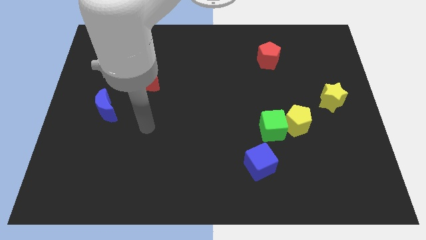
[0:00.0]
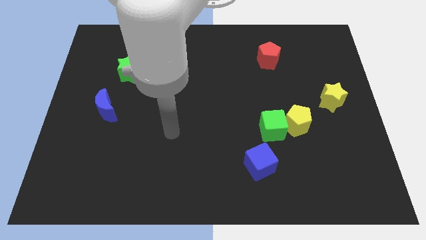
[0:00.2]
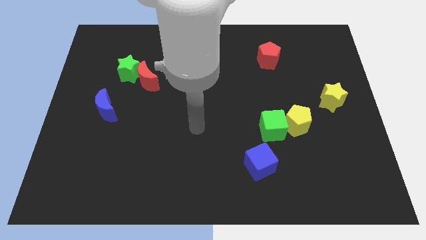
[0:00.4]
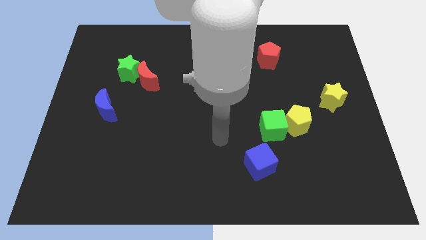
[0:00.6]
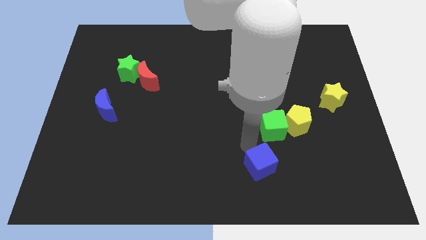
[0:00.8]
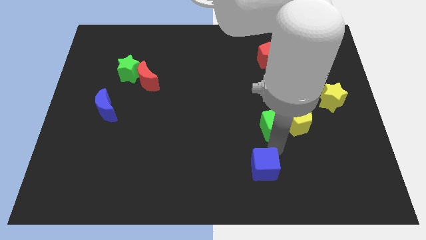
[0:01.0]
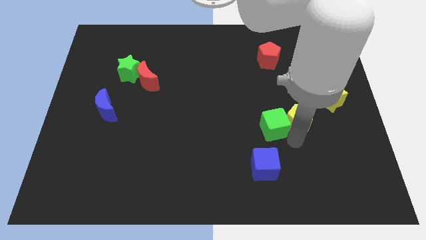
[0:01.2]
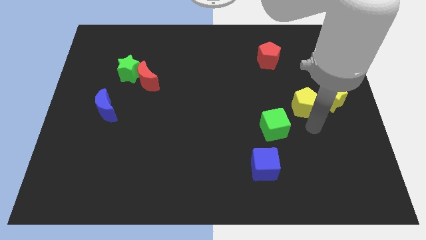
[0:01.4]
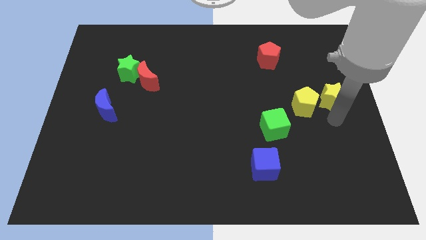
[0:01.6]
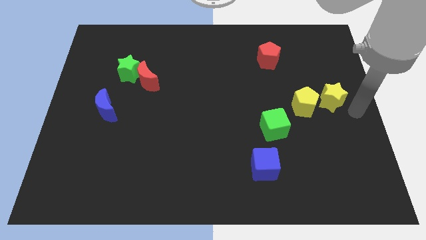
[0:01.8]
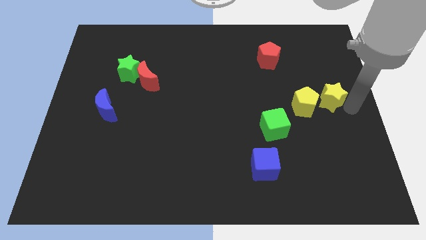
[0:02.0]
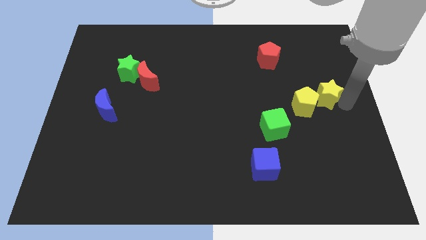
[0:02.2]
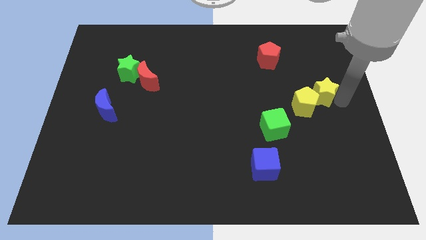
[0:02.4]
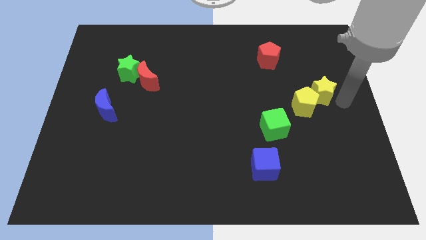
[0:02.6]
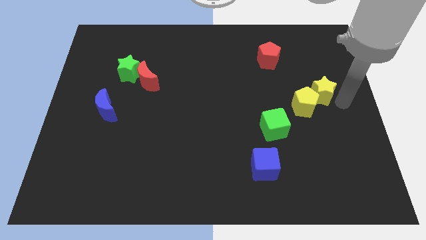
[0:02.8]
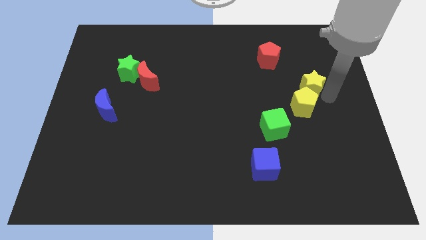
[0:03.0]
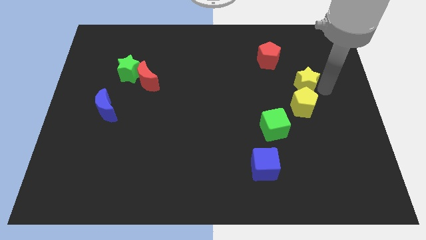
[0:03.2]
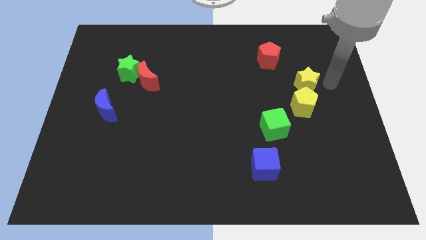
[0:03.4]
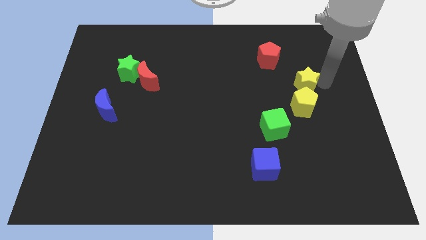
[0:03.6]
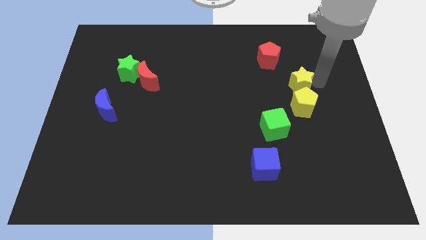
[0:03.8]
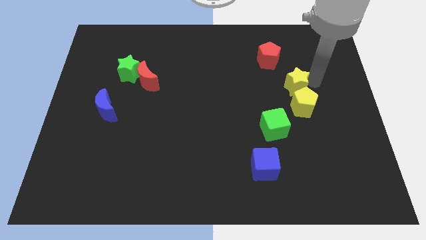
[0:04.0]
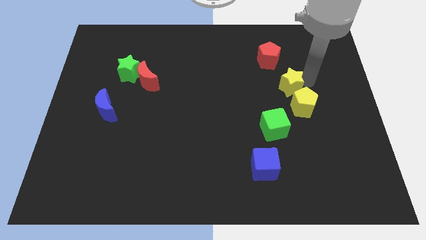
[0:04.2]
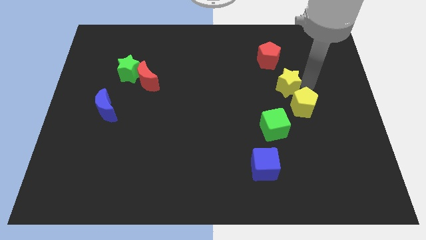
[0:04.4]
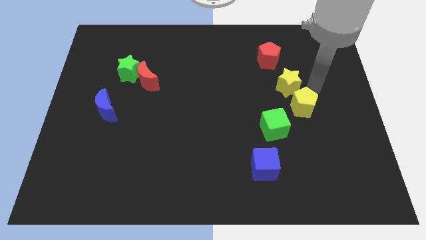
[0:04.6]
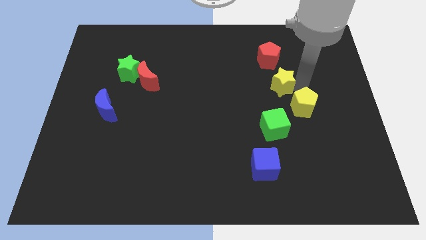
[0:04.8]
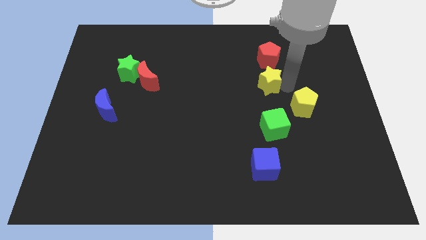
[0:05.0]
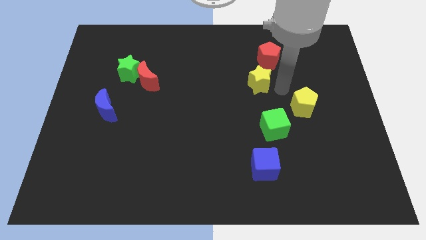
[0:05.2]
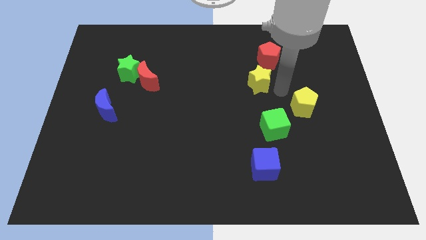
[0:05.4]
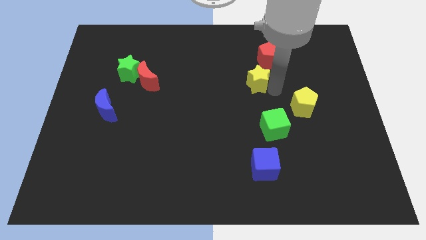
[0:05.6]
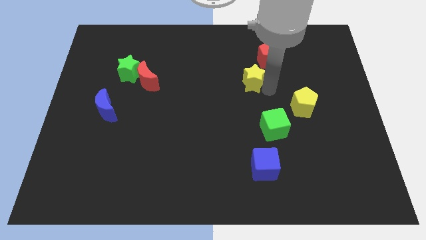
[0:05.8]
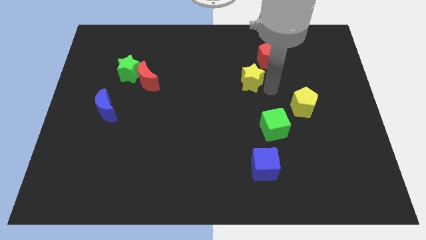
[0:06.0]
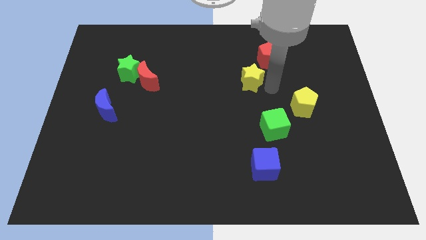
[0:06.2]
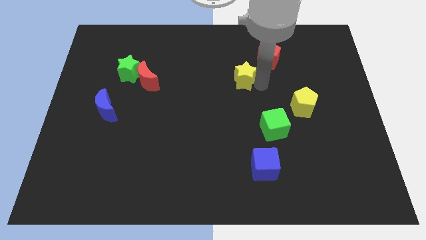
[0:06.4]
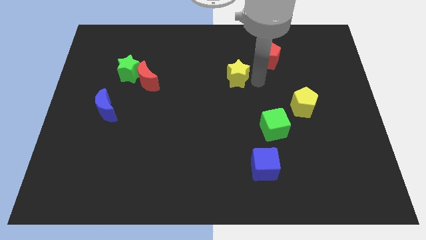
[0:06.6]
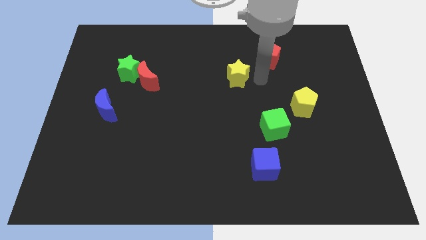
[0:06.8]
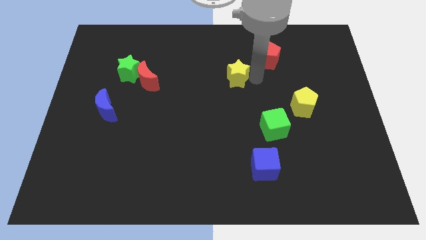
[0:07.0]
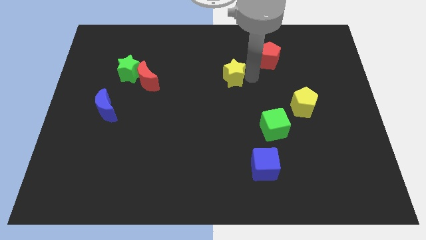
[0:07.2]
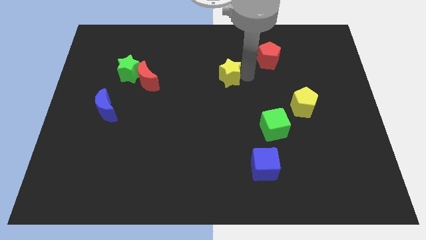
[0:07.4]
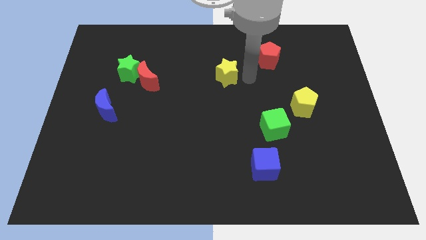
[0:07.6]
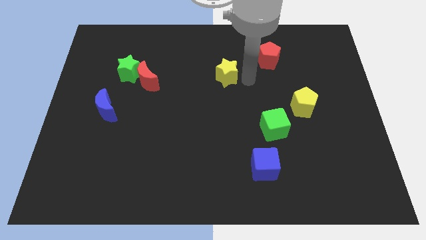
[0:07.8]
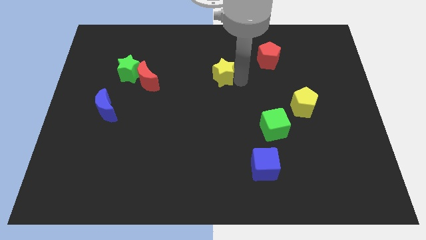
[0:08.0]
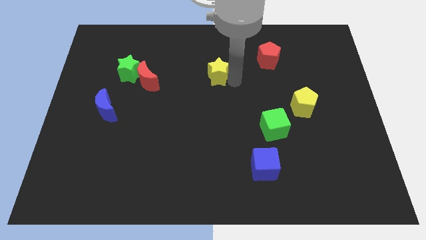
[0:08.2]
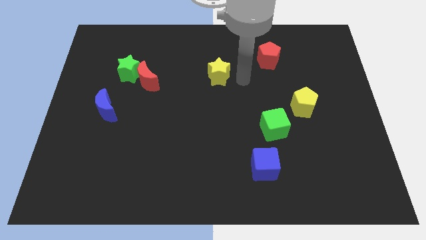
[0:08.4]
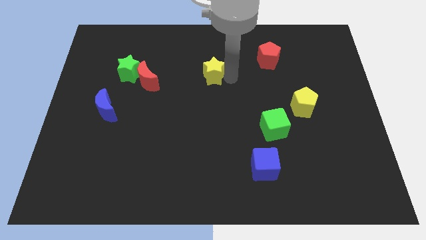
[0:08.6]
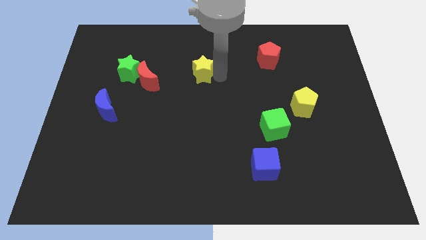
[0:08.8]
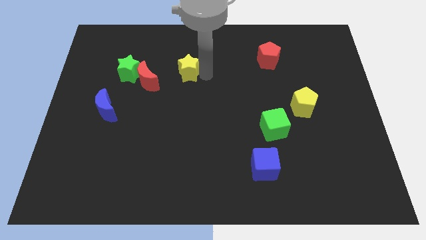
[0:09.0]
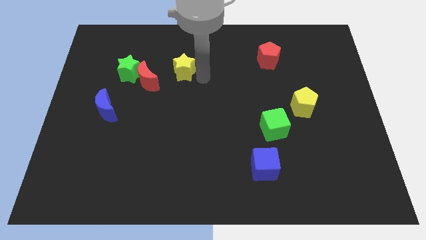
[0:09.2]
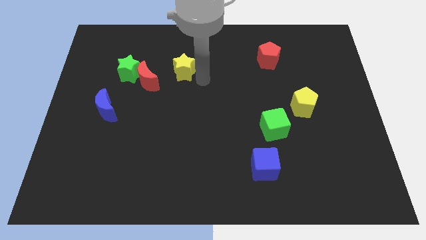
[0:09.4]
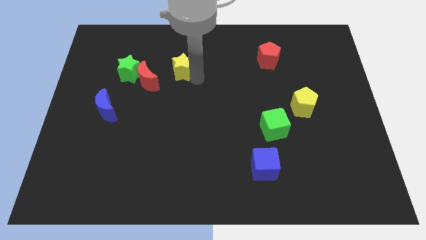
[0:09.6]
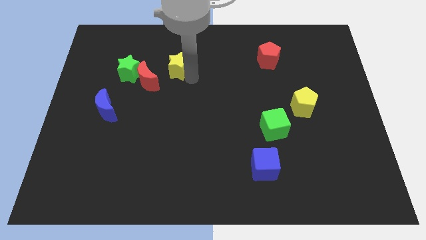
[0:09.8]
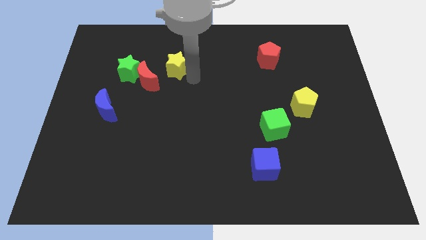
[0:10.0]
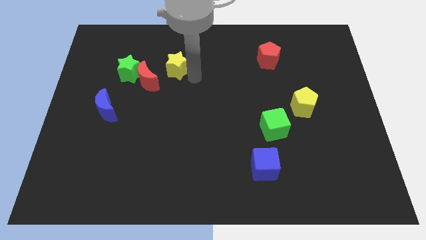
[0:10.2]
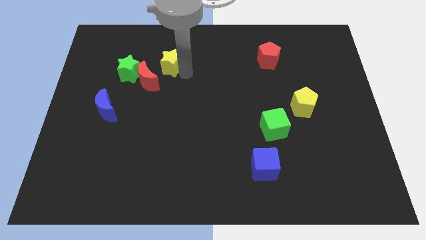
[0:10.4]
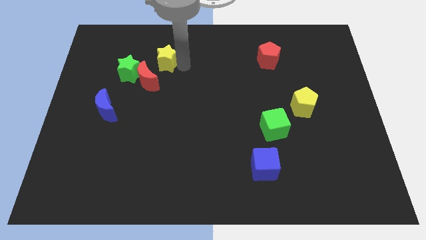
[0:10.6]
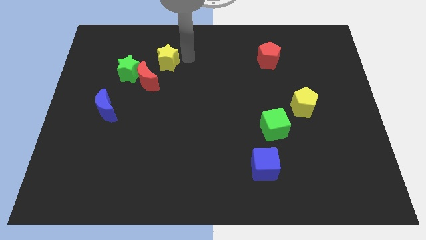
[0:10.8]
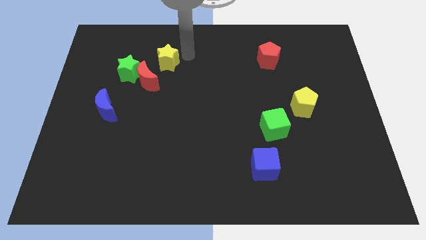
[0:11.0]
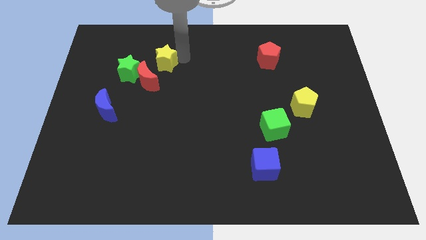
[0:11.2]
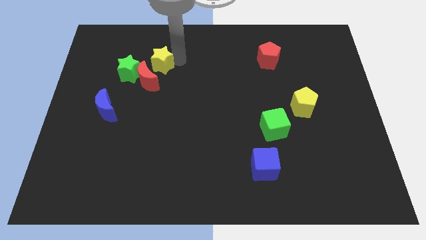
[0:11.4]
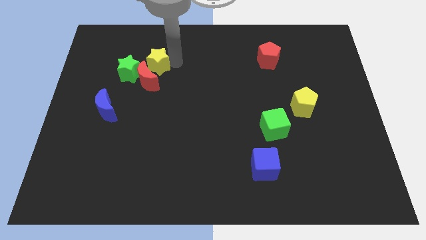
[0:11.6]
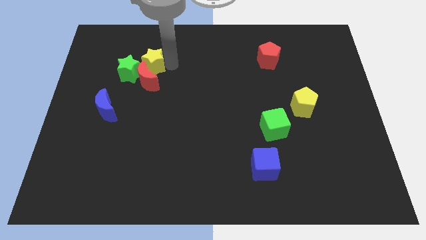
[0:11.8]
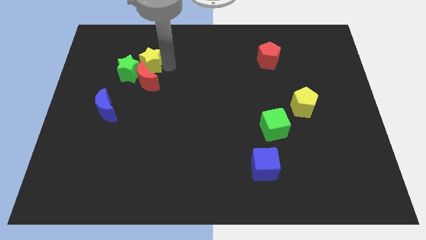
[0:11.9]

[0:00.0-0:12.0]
move the yellow star to the green star
